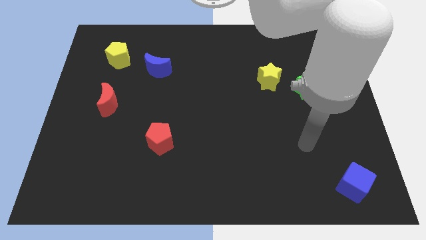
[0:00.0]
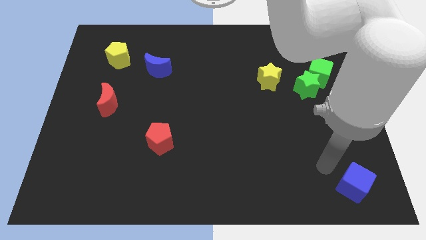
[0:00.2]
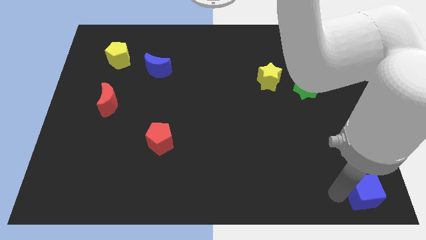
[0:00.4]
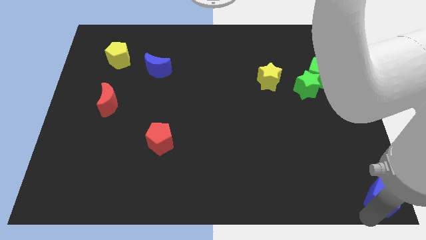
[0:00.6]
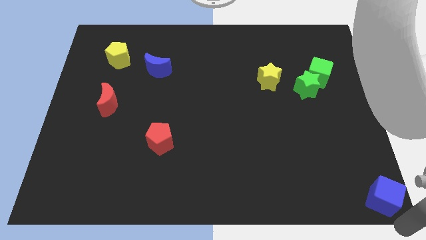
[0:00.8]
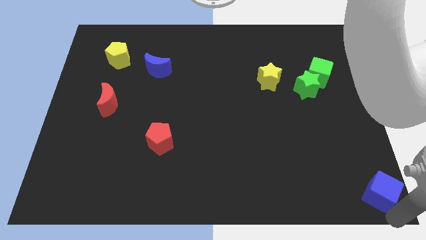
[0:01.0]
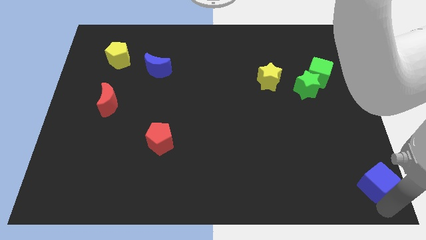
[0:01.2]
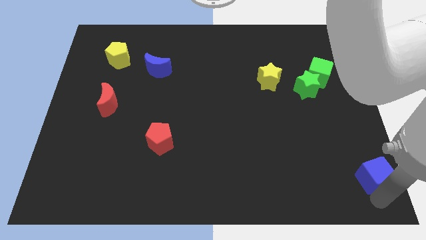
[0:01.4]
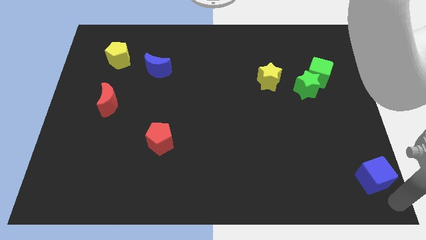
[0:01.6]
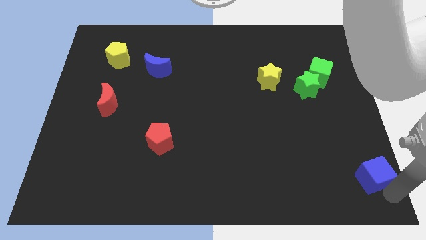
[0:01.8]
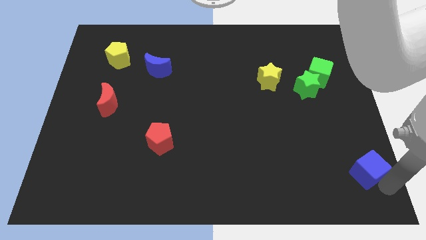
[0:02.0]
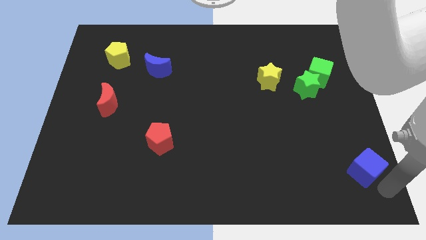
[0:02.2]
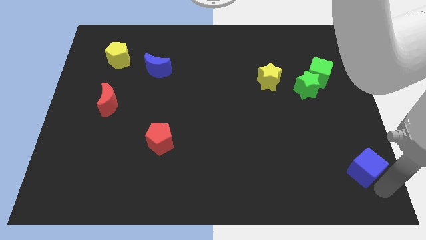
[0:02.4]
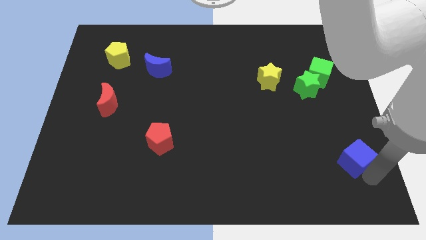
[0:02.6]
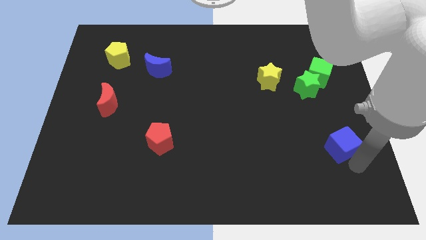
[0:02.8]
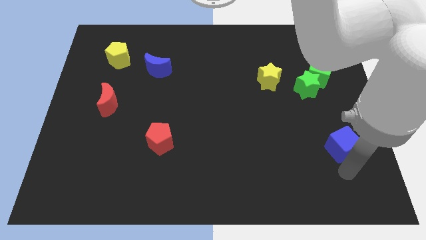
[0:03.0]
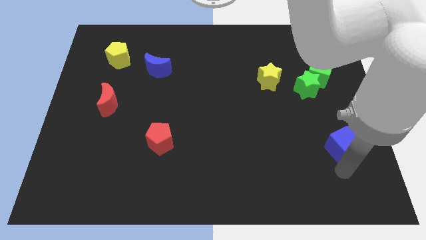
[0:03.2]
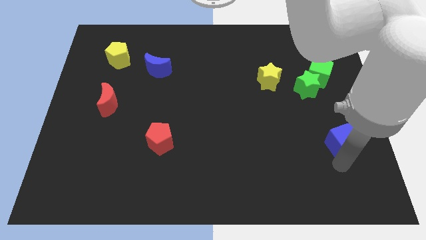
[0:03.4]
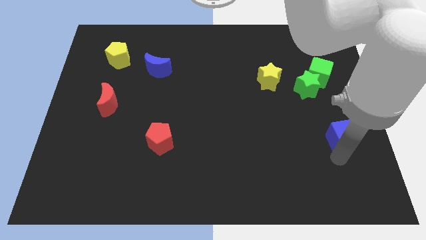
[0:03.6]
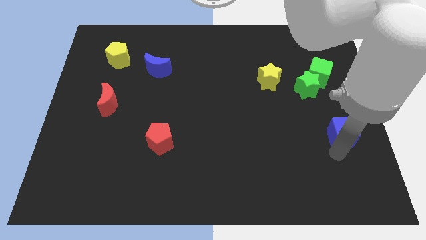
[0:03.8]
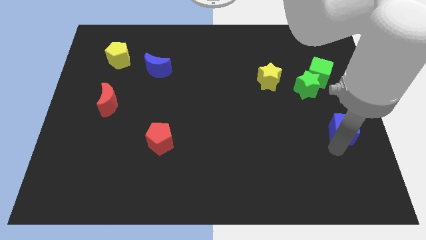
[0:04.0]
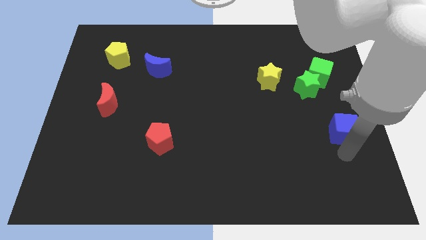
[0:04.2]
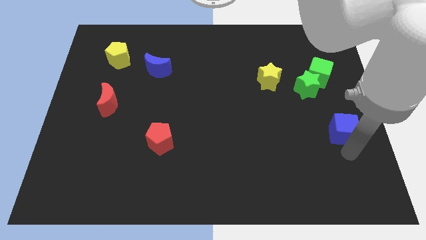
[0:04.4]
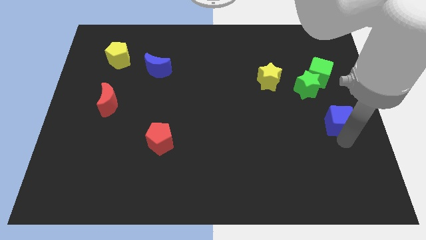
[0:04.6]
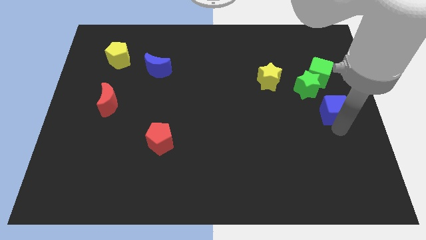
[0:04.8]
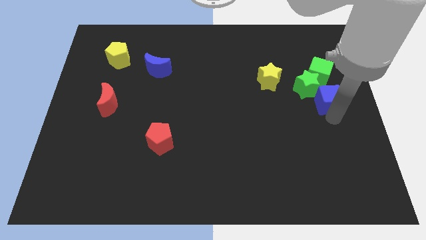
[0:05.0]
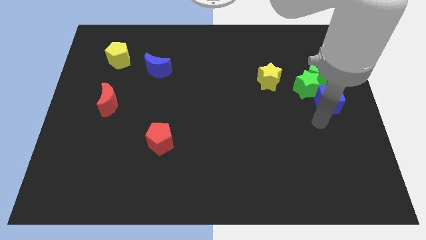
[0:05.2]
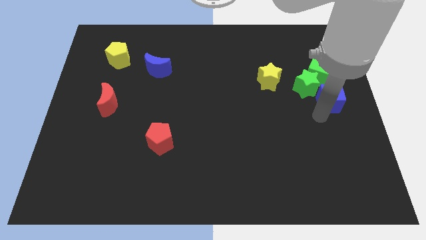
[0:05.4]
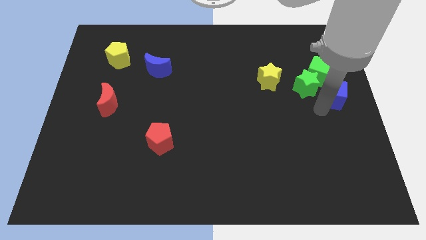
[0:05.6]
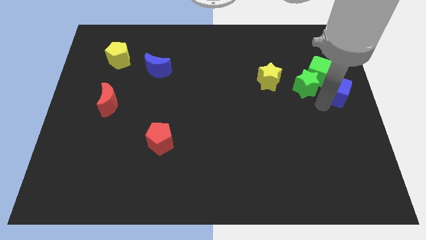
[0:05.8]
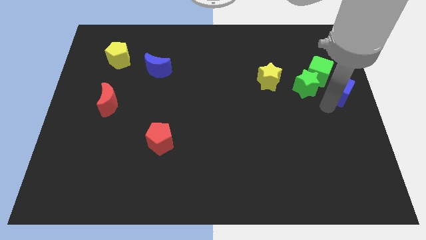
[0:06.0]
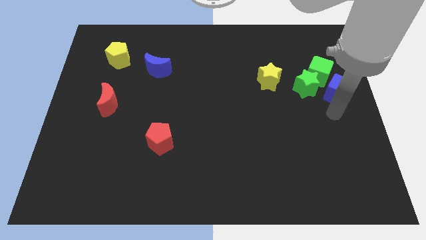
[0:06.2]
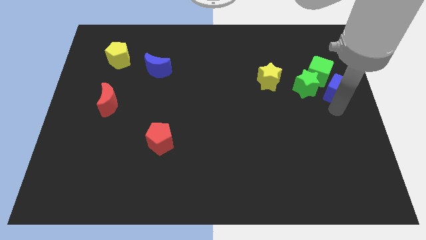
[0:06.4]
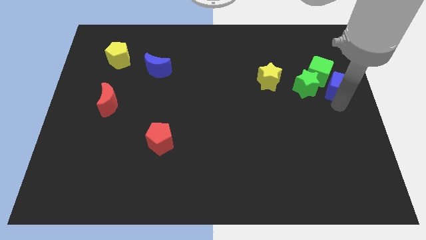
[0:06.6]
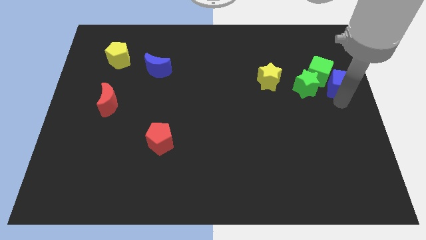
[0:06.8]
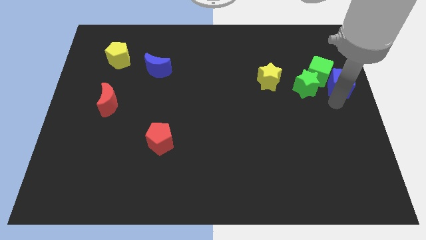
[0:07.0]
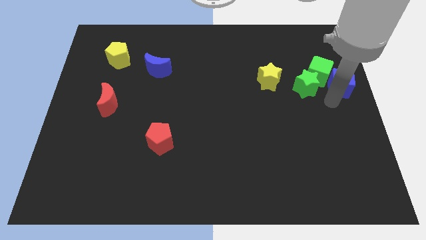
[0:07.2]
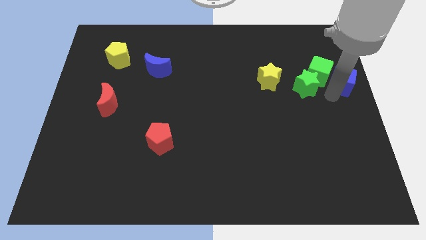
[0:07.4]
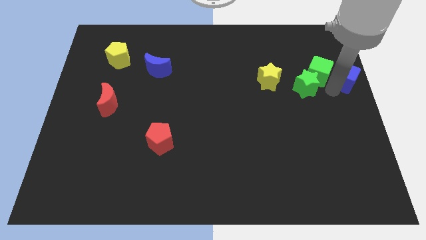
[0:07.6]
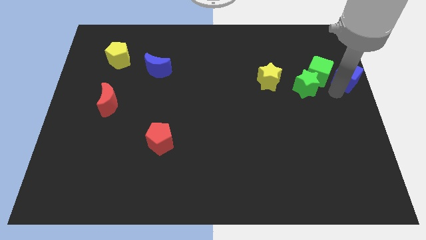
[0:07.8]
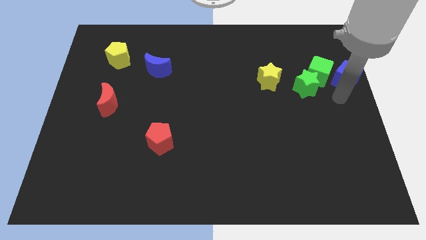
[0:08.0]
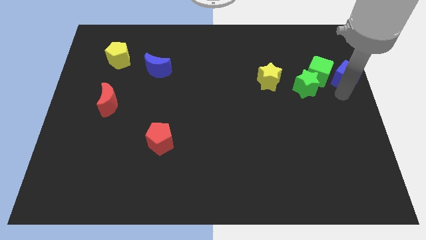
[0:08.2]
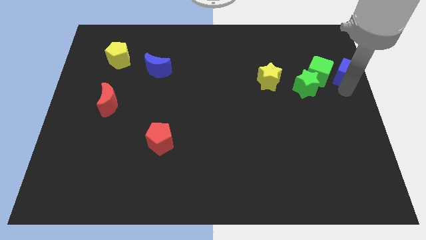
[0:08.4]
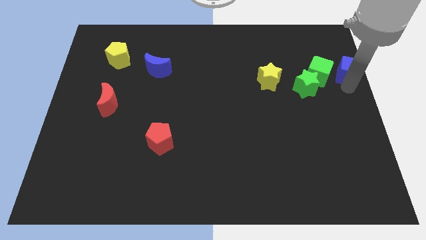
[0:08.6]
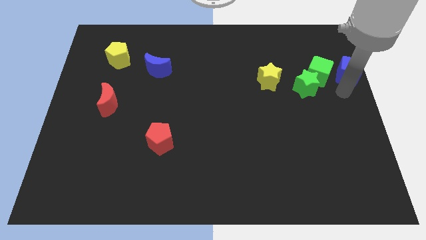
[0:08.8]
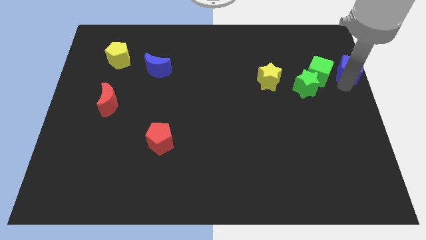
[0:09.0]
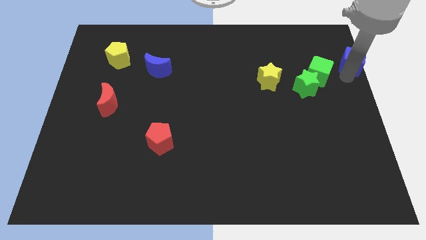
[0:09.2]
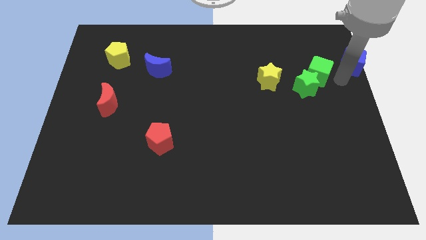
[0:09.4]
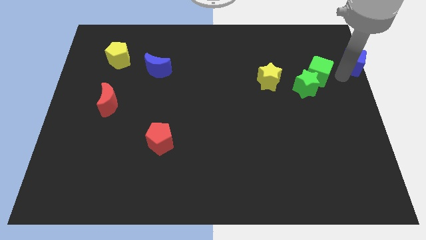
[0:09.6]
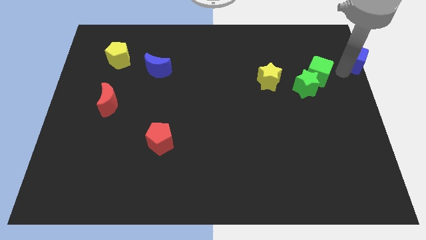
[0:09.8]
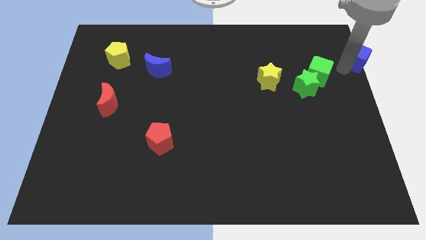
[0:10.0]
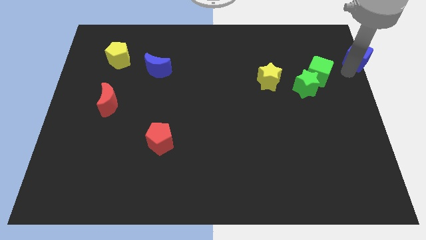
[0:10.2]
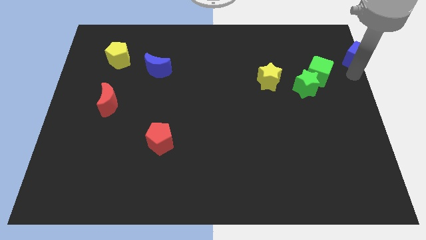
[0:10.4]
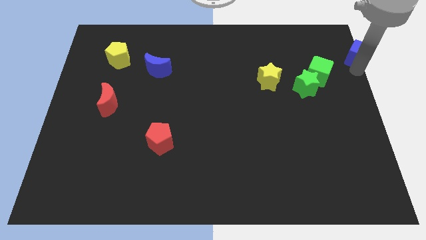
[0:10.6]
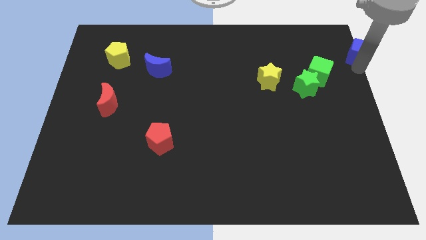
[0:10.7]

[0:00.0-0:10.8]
put the blue cube to the top right corner

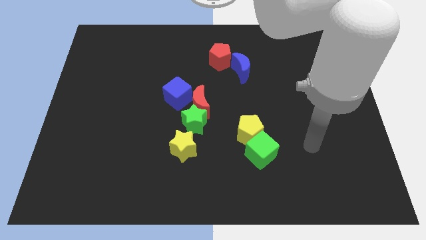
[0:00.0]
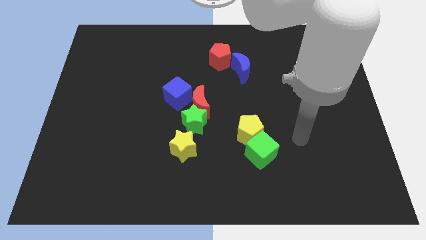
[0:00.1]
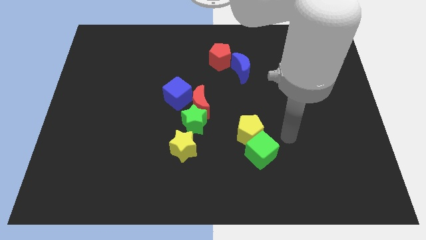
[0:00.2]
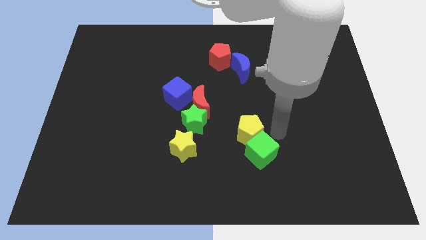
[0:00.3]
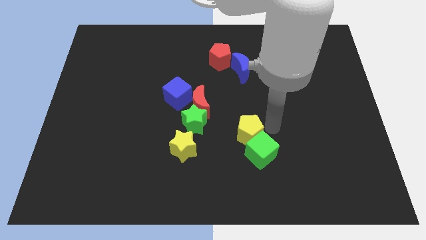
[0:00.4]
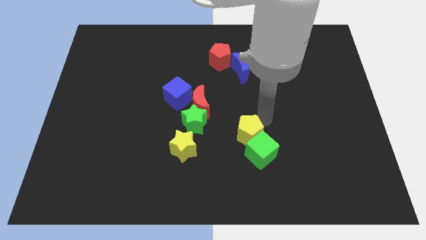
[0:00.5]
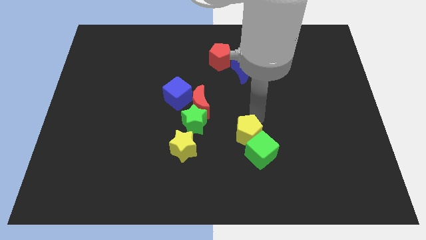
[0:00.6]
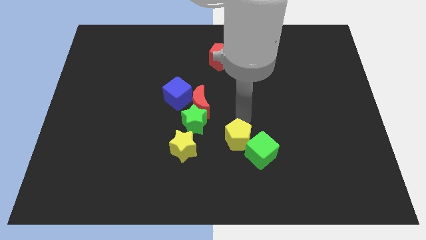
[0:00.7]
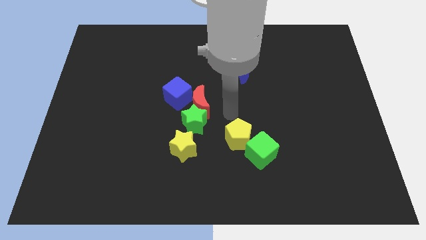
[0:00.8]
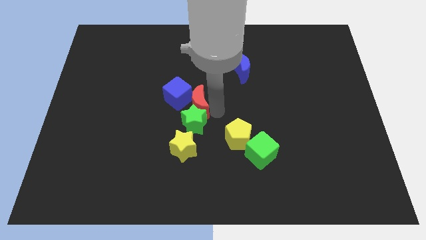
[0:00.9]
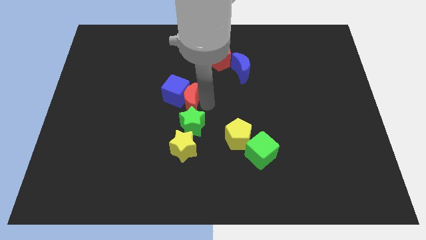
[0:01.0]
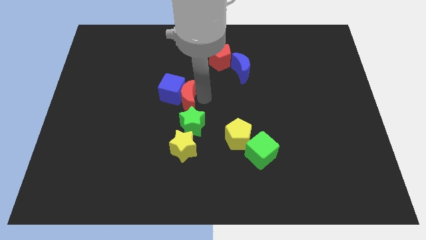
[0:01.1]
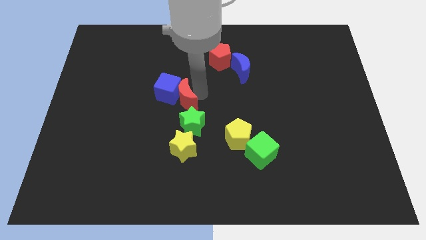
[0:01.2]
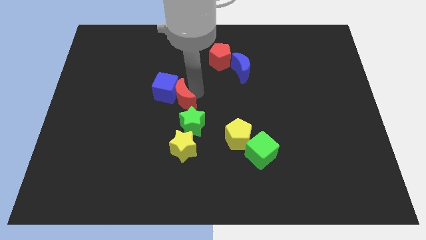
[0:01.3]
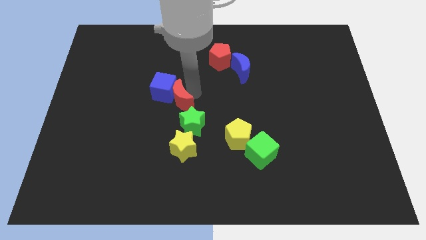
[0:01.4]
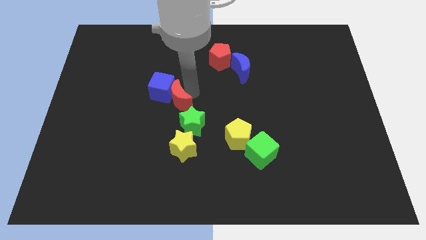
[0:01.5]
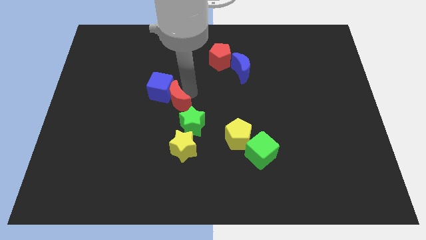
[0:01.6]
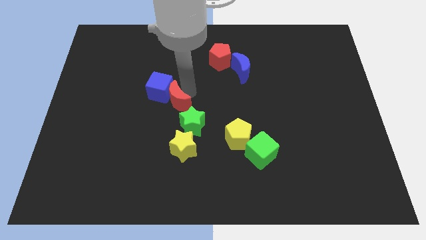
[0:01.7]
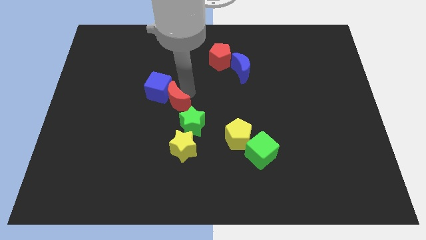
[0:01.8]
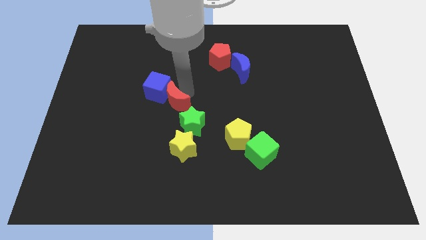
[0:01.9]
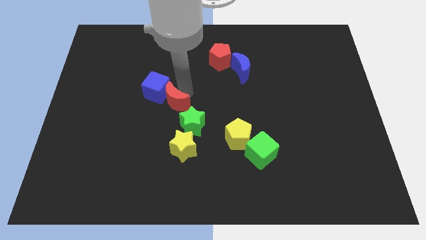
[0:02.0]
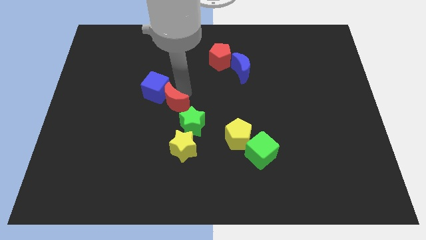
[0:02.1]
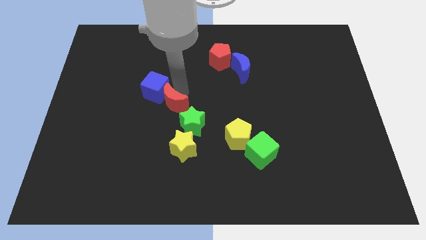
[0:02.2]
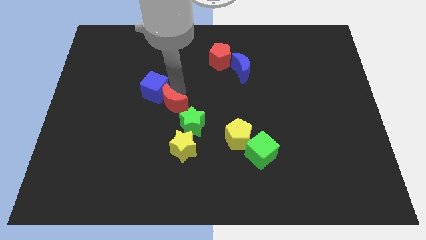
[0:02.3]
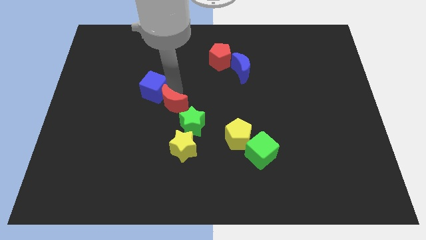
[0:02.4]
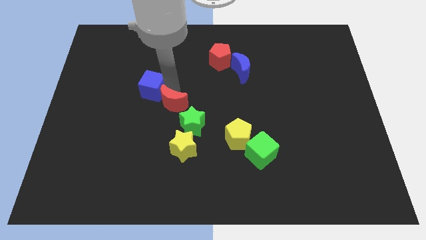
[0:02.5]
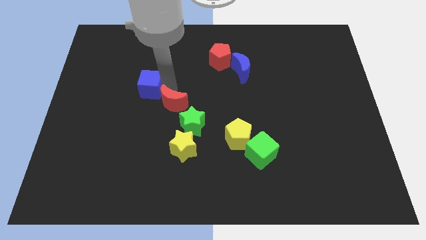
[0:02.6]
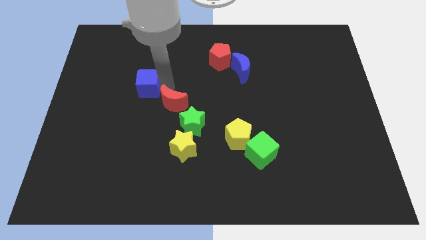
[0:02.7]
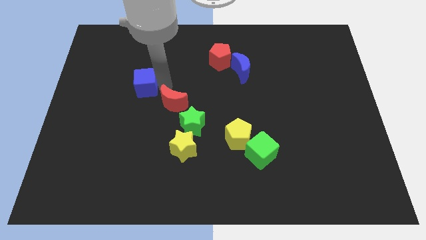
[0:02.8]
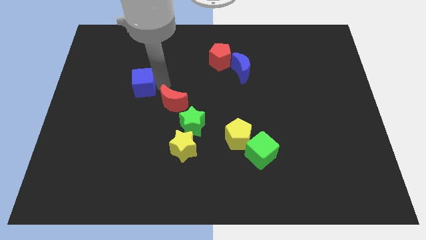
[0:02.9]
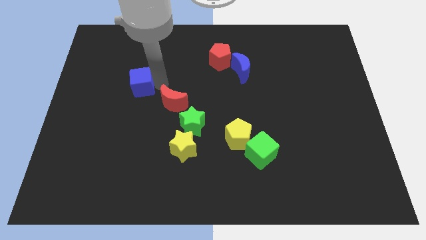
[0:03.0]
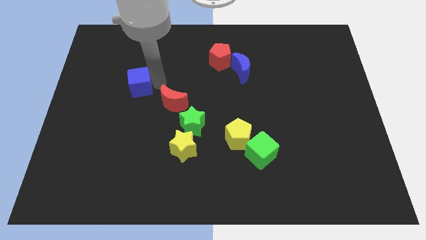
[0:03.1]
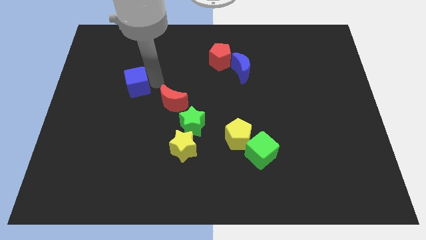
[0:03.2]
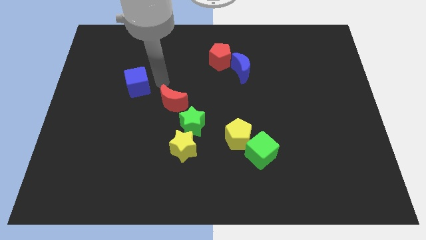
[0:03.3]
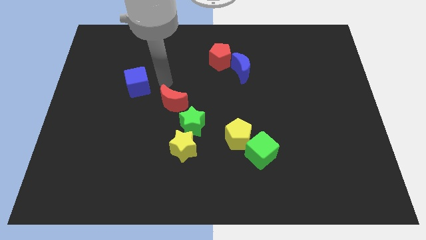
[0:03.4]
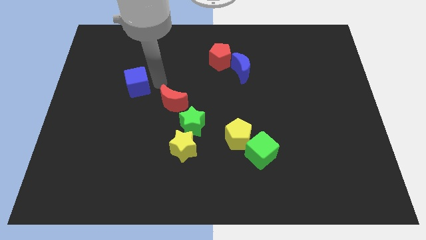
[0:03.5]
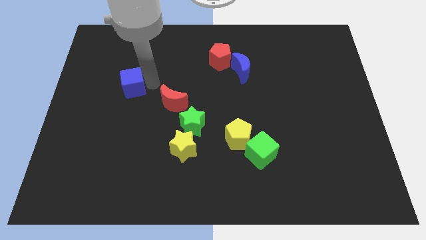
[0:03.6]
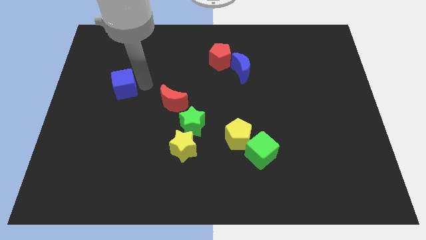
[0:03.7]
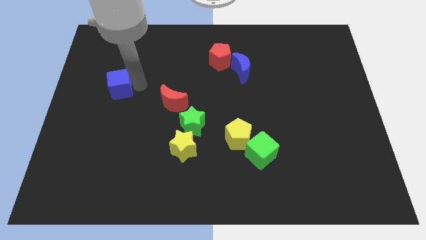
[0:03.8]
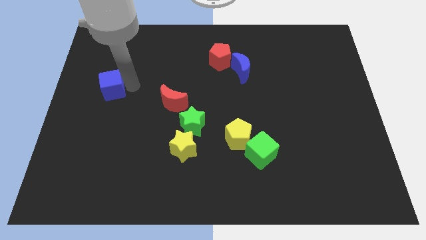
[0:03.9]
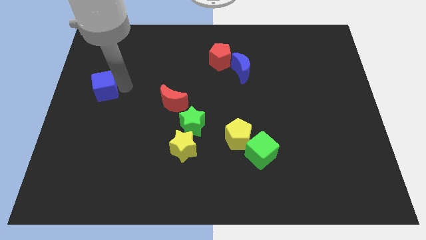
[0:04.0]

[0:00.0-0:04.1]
put the blue cube to the left side of the board
